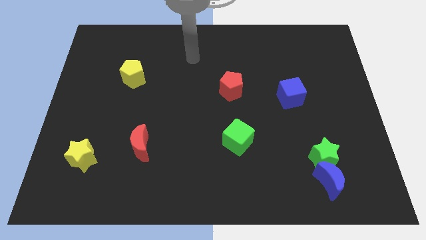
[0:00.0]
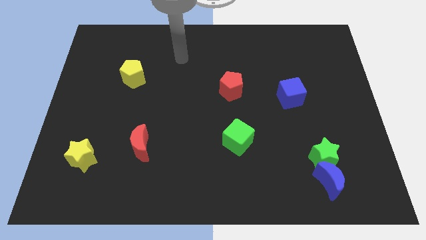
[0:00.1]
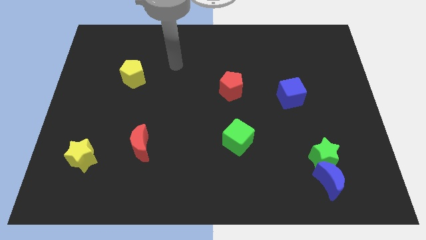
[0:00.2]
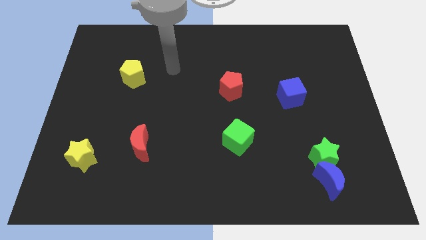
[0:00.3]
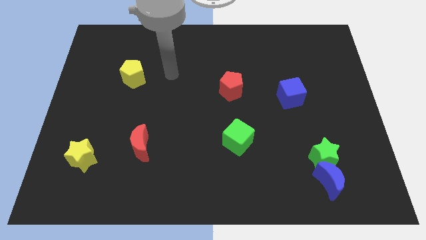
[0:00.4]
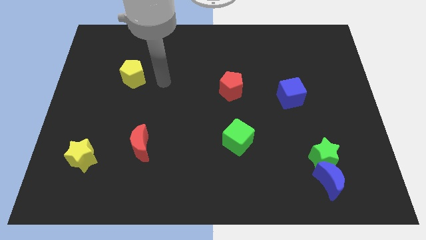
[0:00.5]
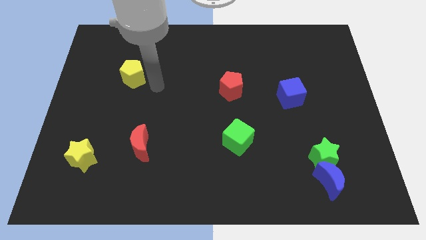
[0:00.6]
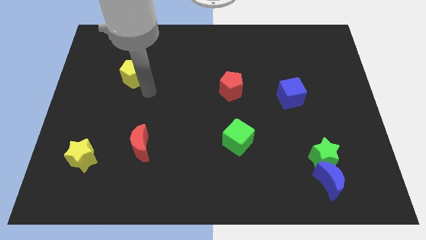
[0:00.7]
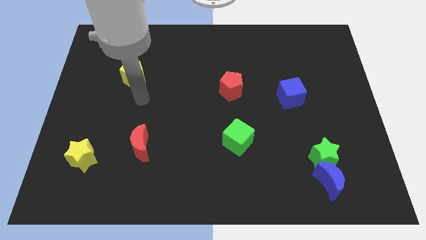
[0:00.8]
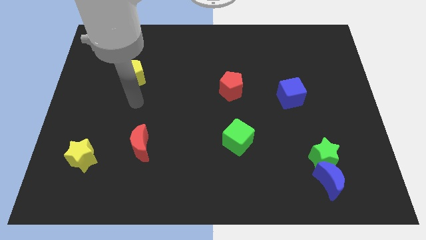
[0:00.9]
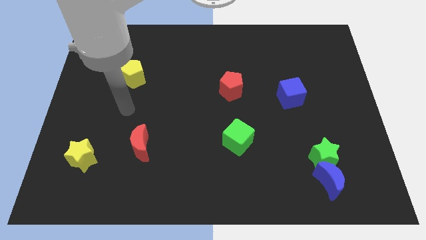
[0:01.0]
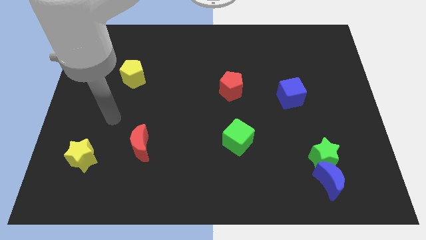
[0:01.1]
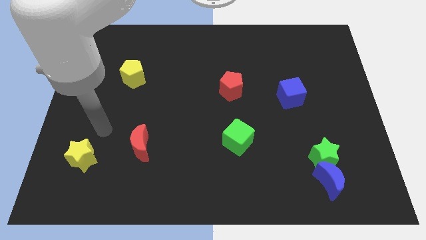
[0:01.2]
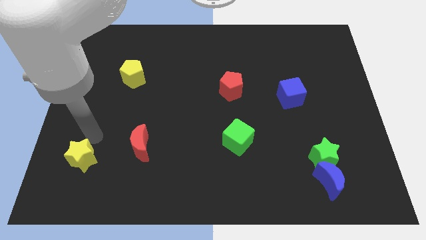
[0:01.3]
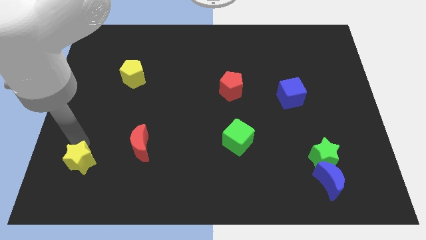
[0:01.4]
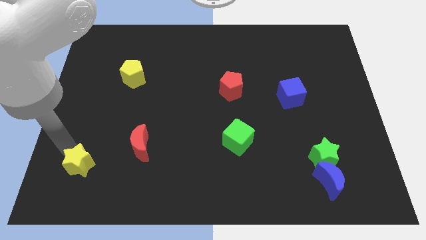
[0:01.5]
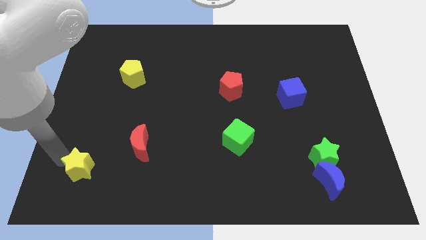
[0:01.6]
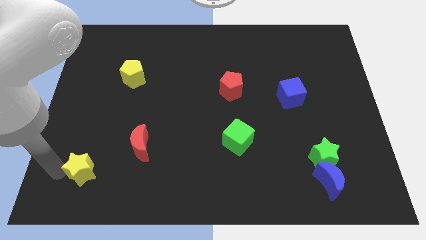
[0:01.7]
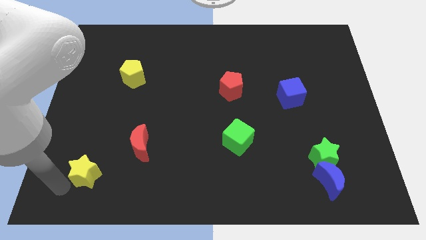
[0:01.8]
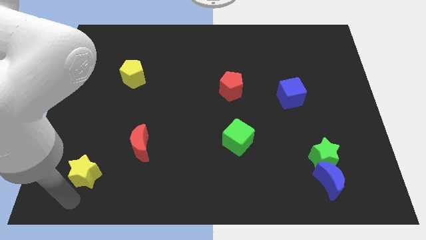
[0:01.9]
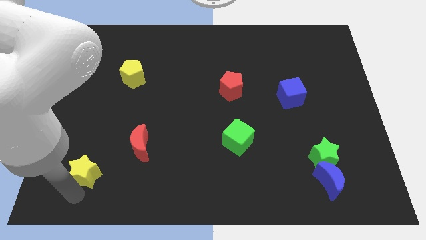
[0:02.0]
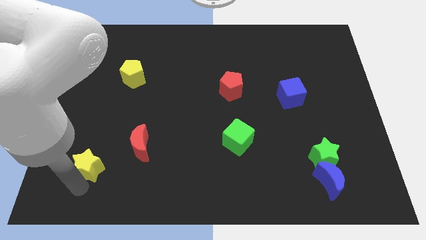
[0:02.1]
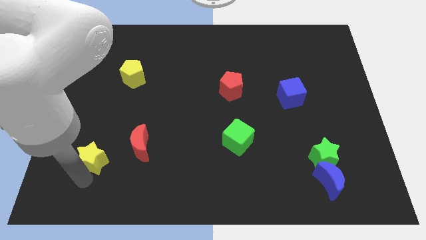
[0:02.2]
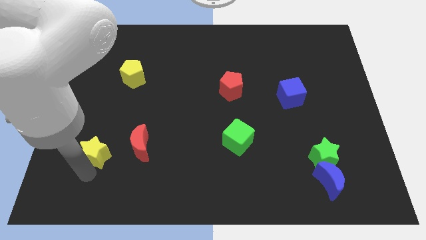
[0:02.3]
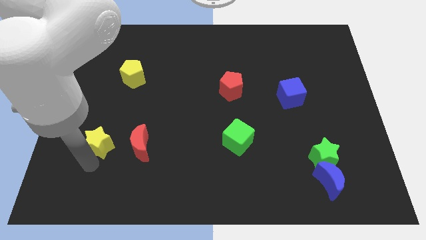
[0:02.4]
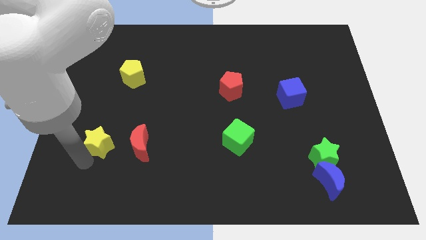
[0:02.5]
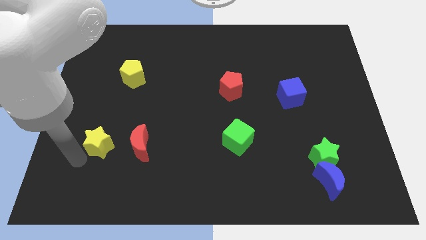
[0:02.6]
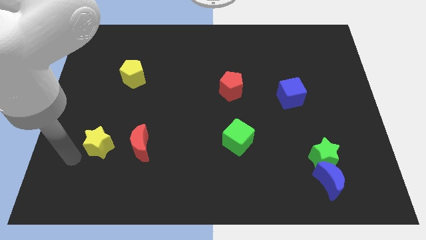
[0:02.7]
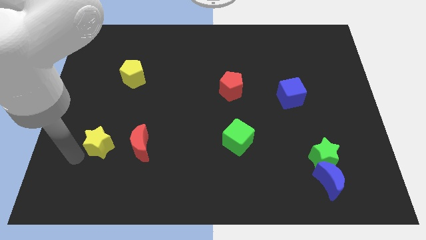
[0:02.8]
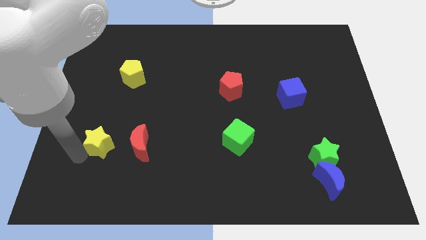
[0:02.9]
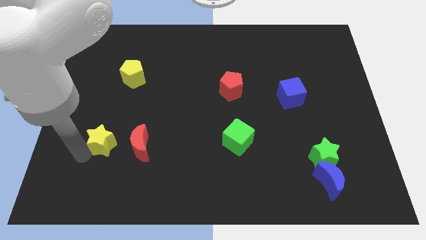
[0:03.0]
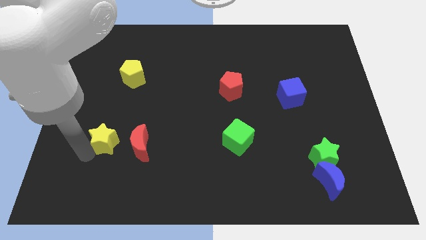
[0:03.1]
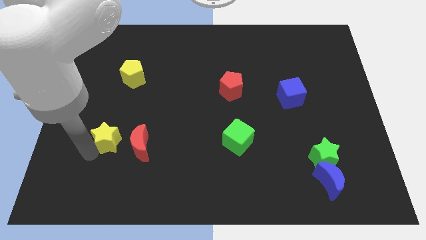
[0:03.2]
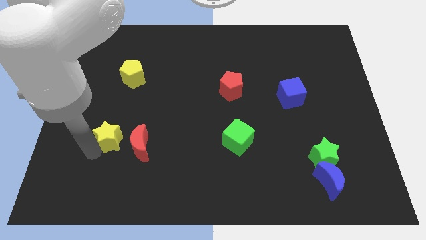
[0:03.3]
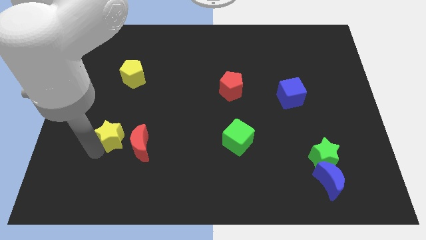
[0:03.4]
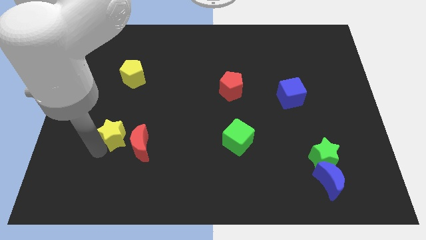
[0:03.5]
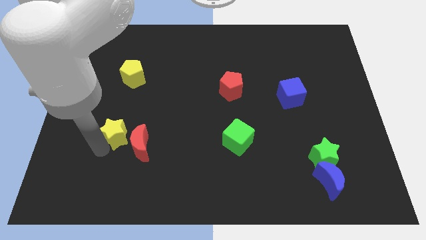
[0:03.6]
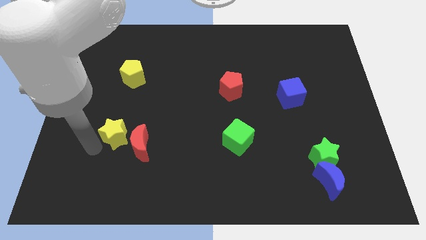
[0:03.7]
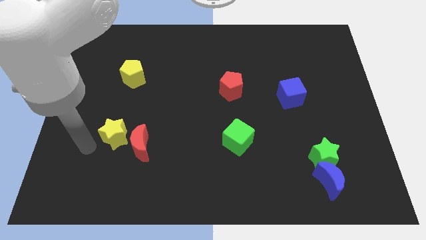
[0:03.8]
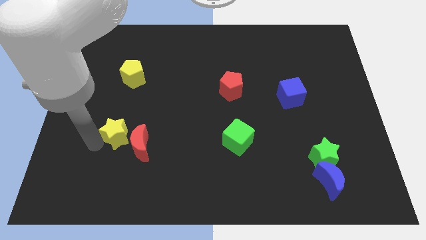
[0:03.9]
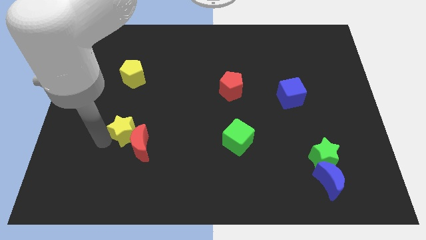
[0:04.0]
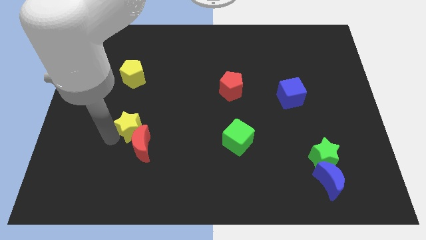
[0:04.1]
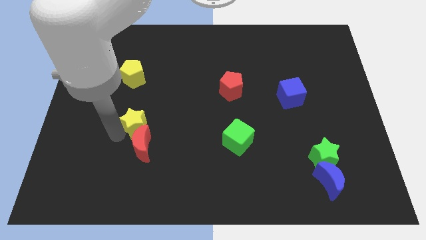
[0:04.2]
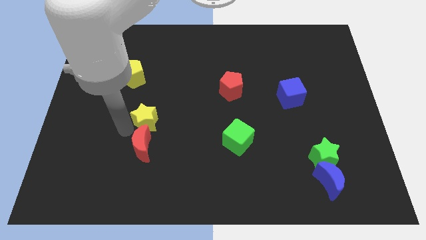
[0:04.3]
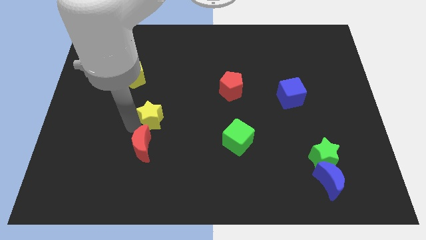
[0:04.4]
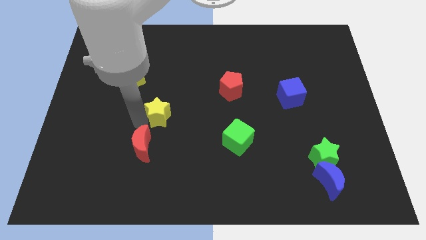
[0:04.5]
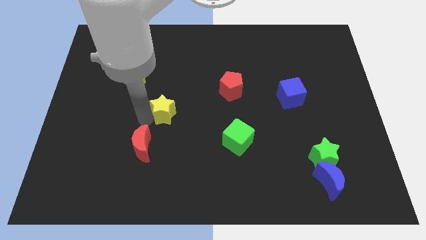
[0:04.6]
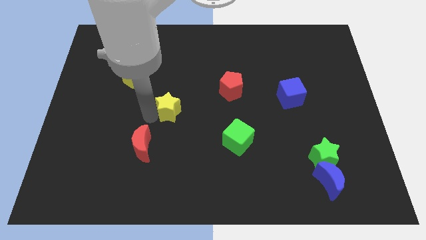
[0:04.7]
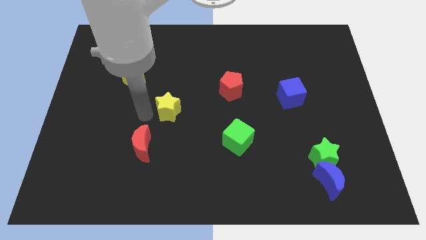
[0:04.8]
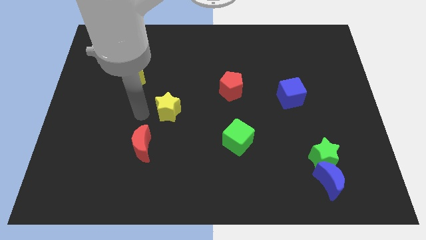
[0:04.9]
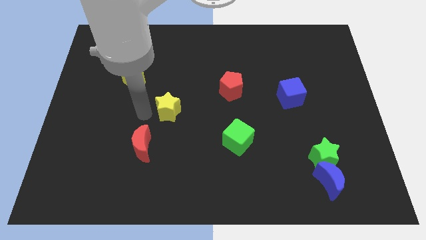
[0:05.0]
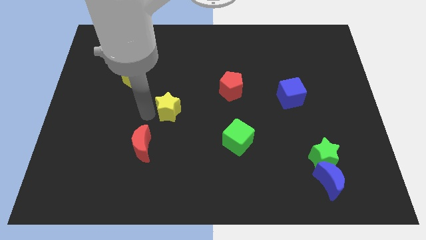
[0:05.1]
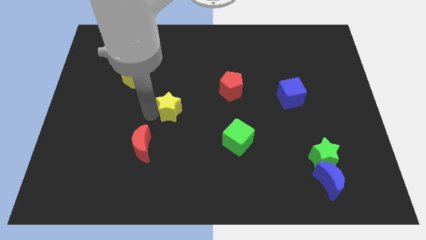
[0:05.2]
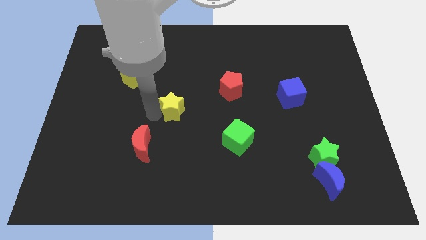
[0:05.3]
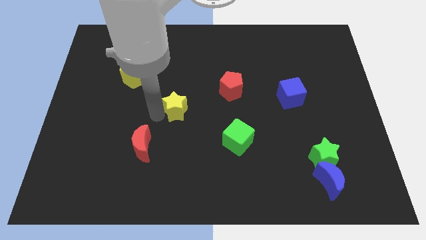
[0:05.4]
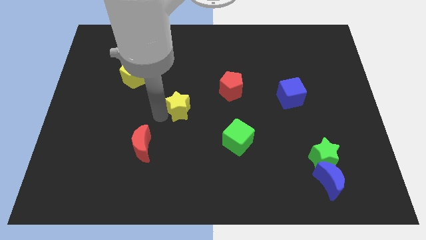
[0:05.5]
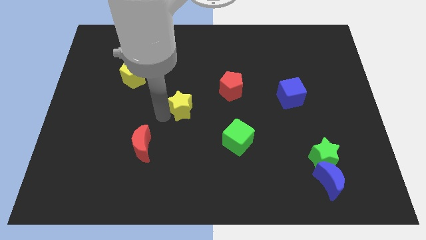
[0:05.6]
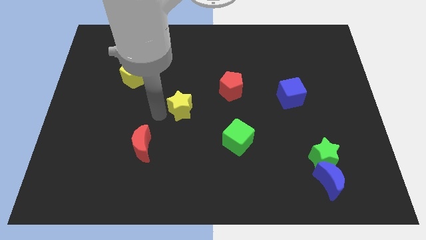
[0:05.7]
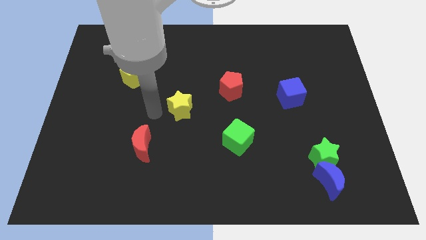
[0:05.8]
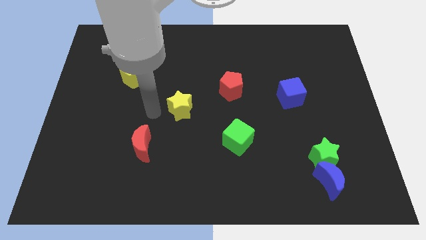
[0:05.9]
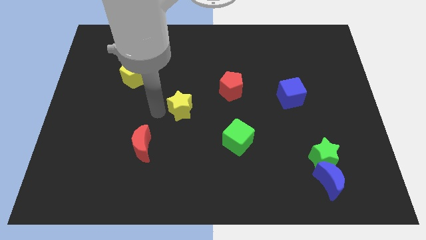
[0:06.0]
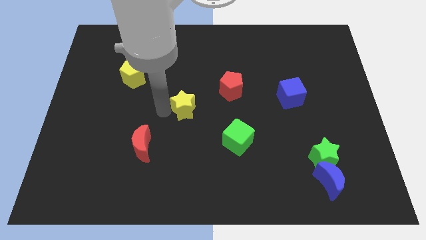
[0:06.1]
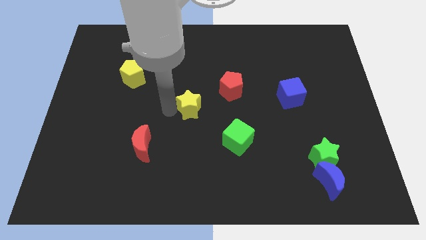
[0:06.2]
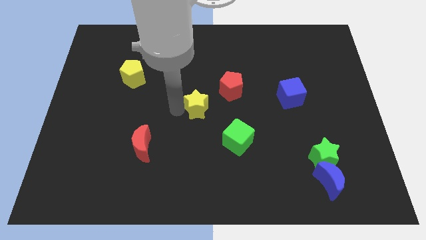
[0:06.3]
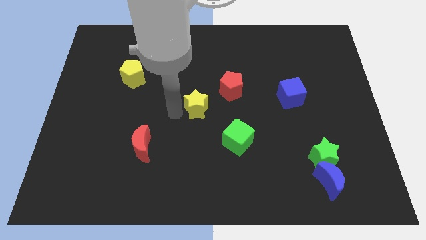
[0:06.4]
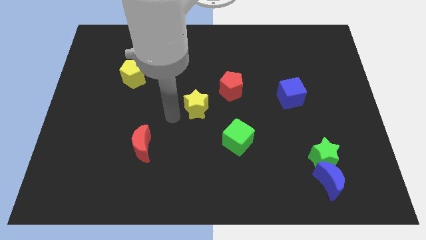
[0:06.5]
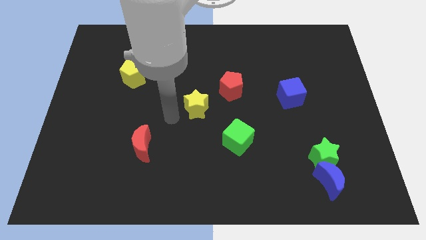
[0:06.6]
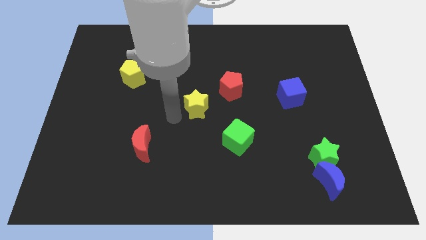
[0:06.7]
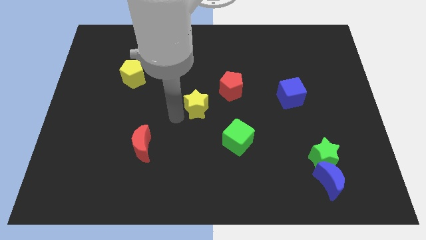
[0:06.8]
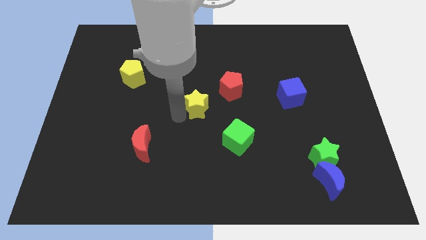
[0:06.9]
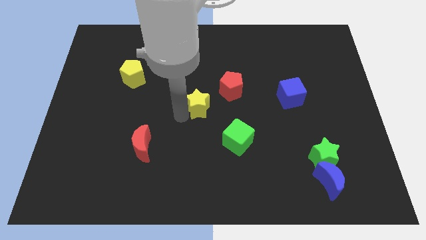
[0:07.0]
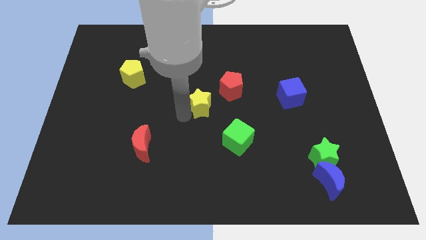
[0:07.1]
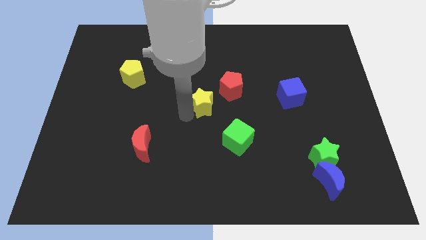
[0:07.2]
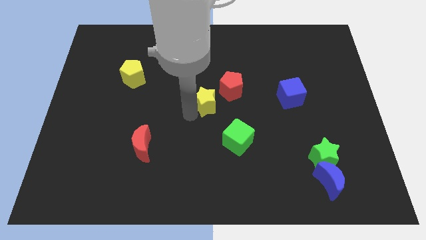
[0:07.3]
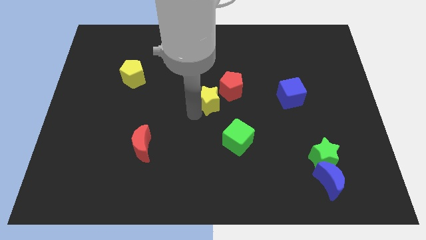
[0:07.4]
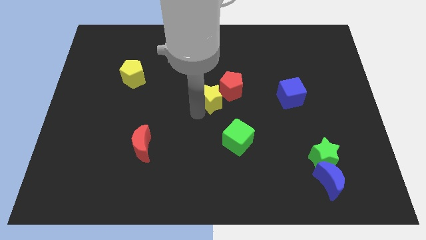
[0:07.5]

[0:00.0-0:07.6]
slide the yellow star to the red pentagon
